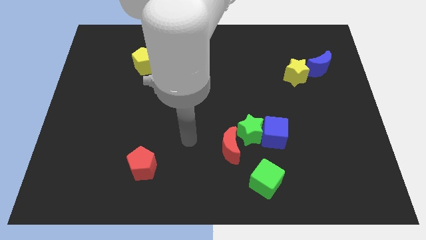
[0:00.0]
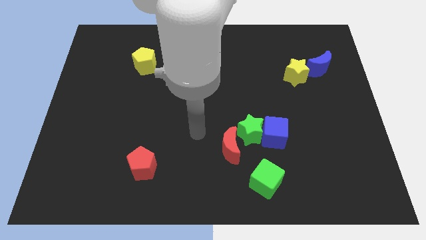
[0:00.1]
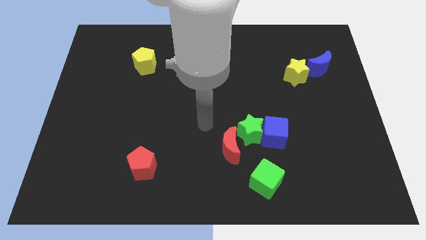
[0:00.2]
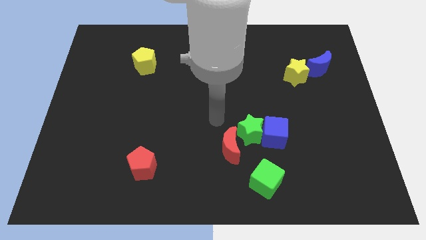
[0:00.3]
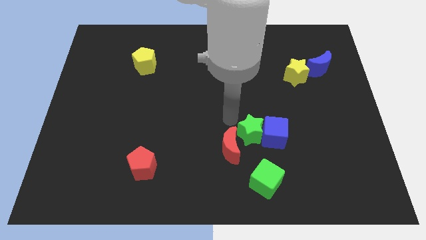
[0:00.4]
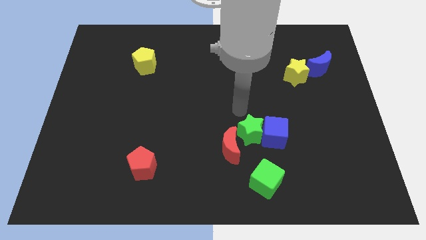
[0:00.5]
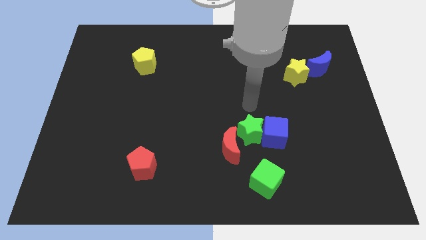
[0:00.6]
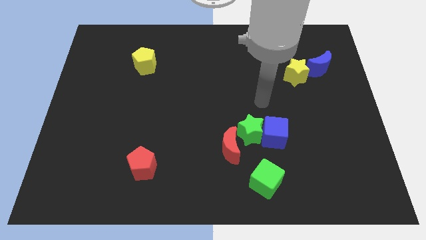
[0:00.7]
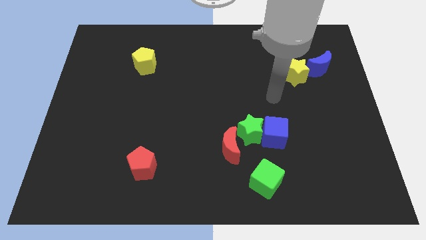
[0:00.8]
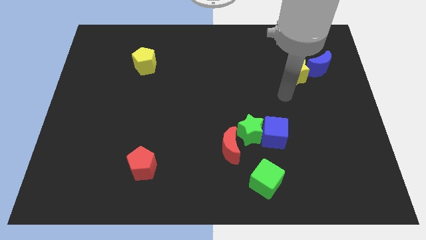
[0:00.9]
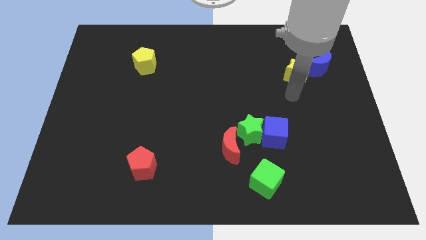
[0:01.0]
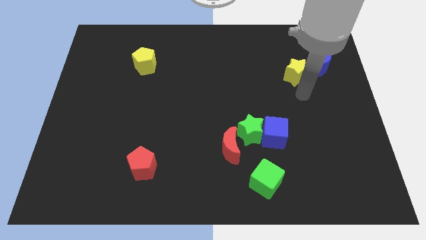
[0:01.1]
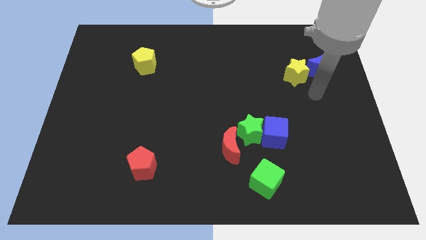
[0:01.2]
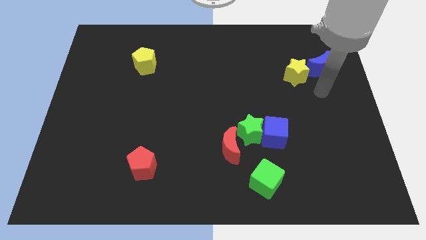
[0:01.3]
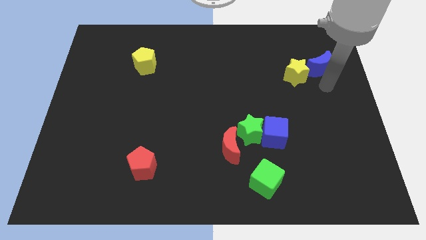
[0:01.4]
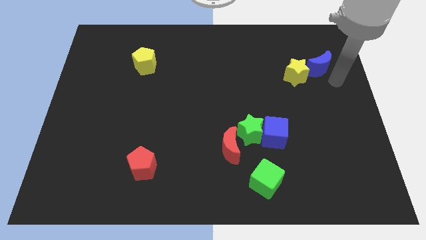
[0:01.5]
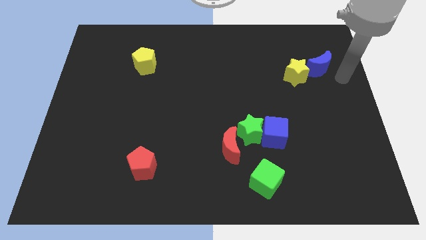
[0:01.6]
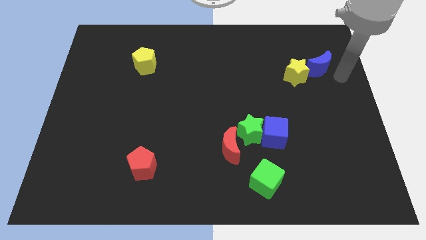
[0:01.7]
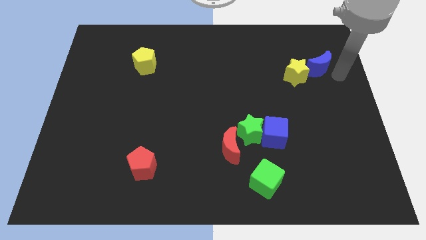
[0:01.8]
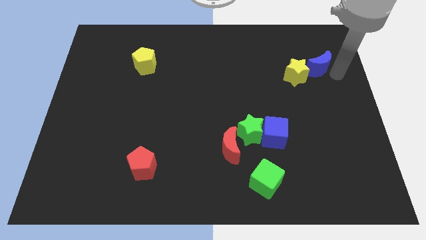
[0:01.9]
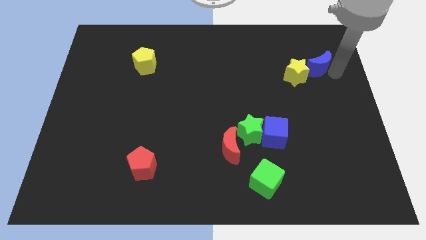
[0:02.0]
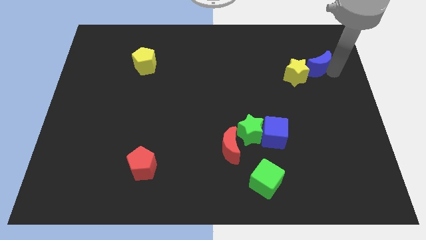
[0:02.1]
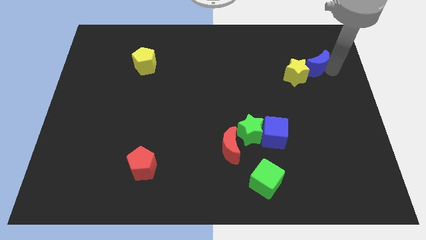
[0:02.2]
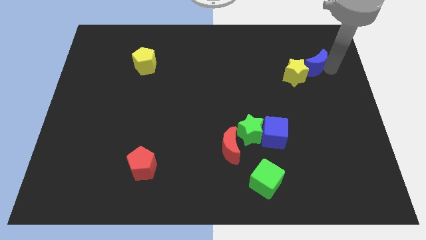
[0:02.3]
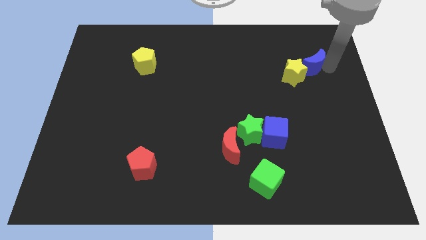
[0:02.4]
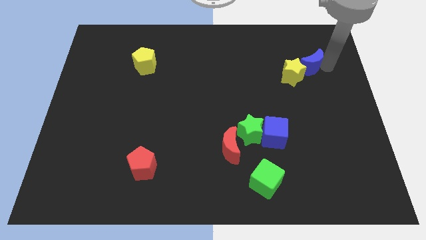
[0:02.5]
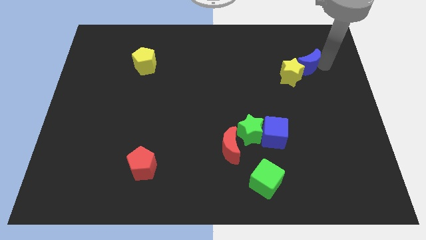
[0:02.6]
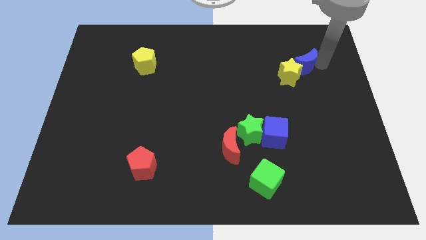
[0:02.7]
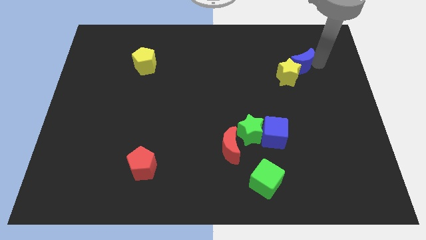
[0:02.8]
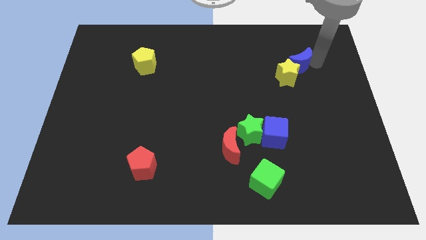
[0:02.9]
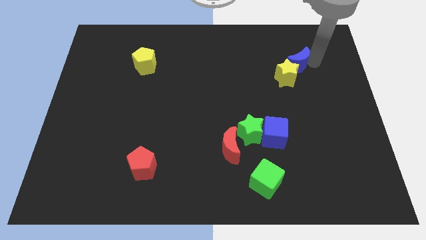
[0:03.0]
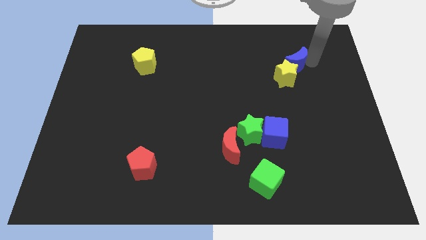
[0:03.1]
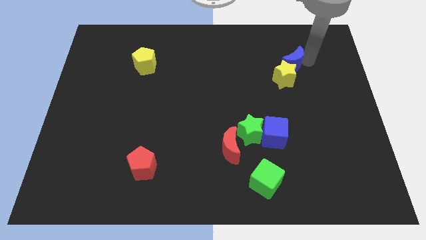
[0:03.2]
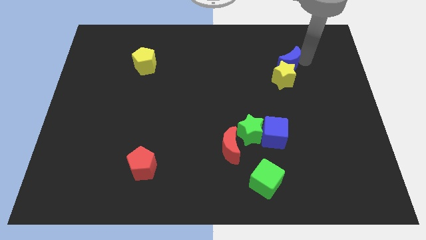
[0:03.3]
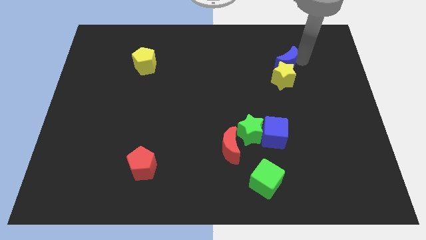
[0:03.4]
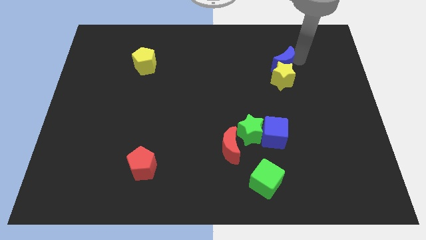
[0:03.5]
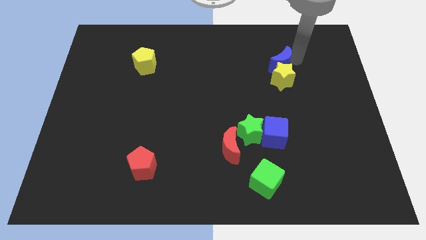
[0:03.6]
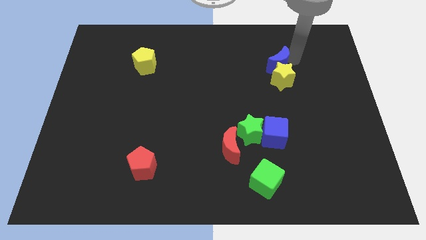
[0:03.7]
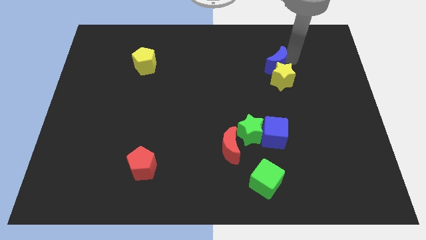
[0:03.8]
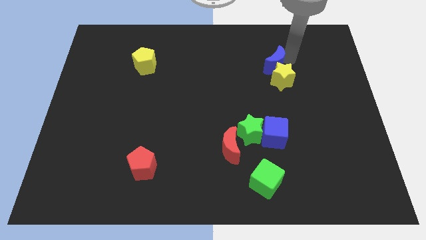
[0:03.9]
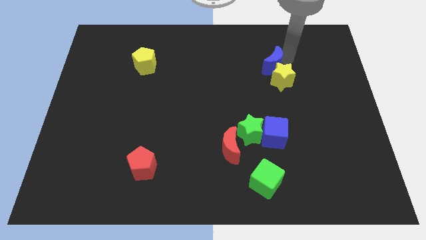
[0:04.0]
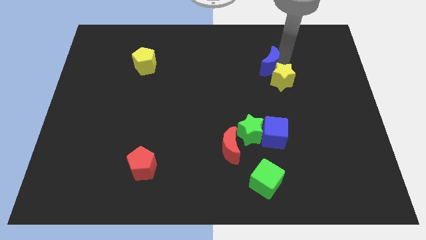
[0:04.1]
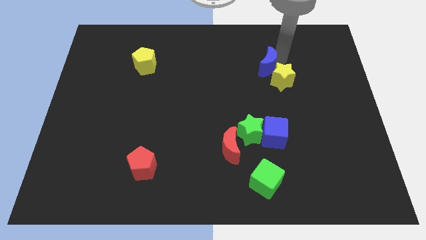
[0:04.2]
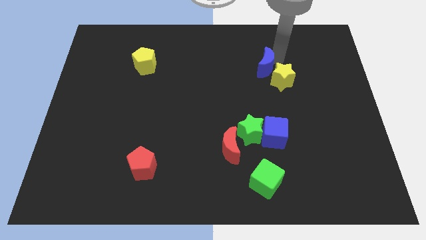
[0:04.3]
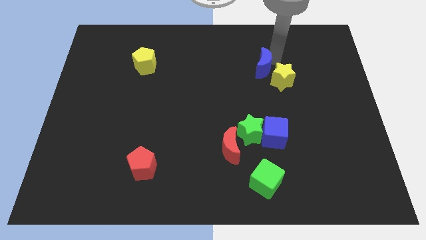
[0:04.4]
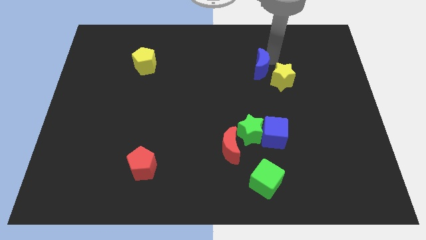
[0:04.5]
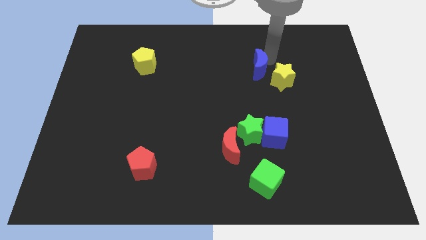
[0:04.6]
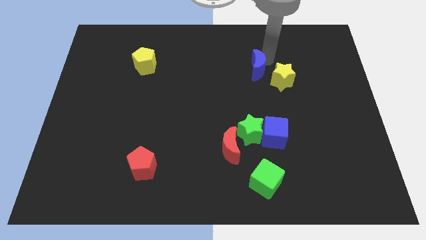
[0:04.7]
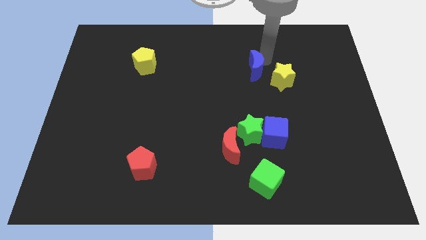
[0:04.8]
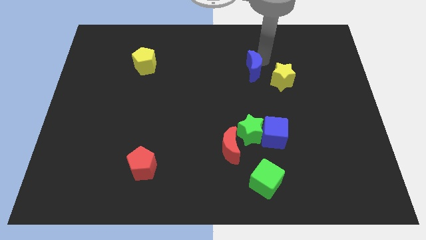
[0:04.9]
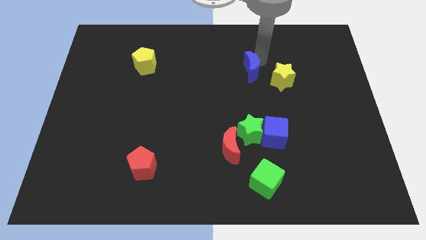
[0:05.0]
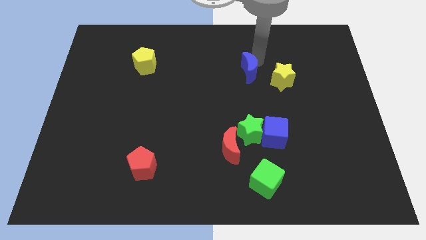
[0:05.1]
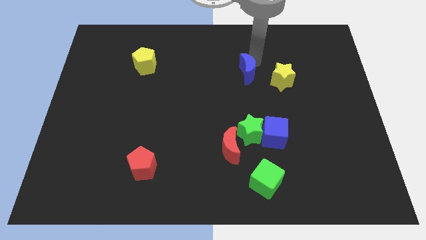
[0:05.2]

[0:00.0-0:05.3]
move the blue moon to the middle

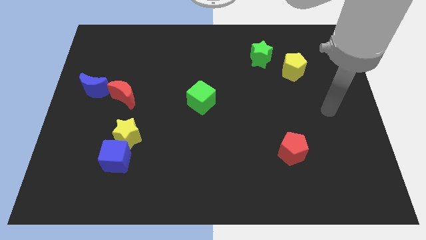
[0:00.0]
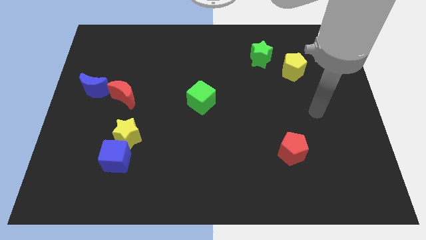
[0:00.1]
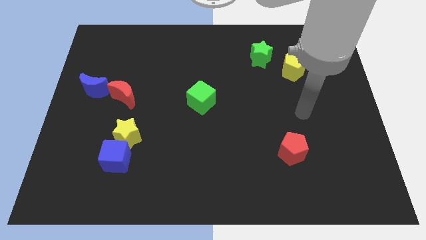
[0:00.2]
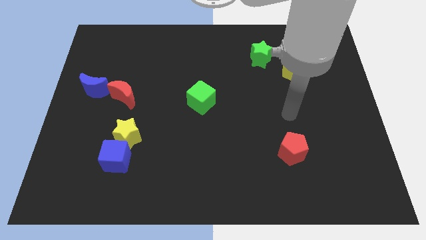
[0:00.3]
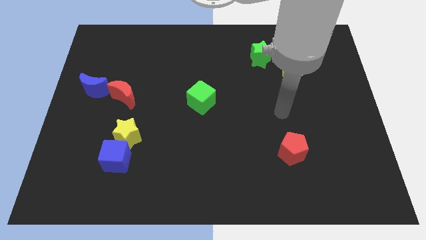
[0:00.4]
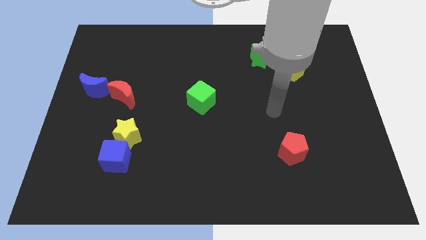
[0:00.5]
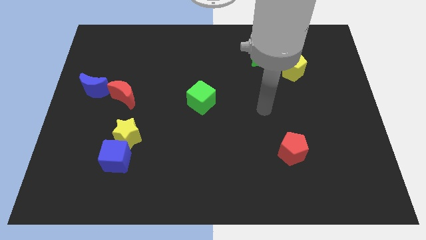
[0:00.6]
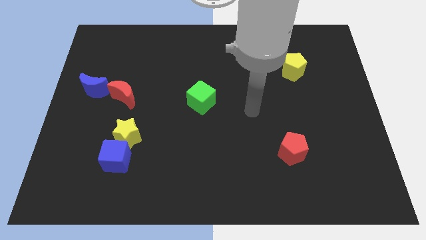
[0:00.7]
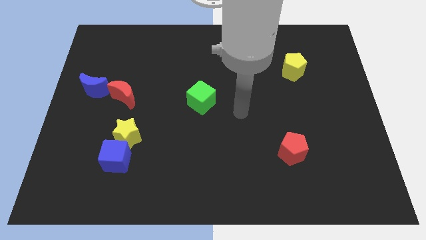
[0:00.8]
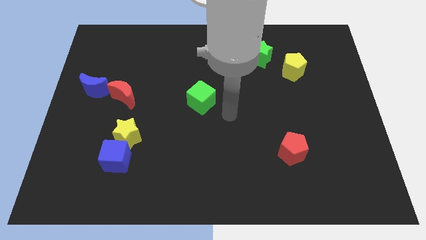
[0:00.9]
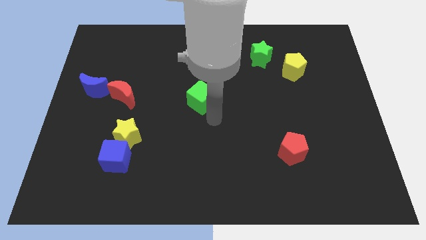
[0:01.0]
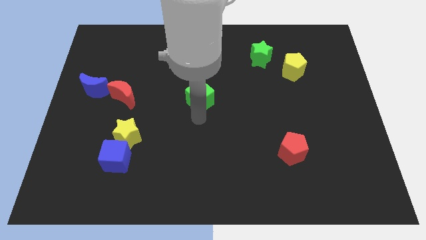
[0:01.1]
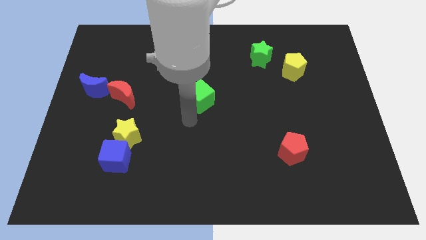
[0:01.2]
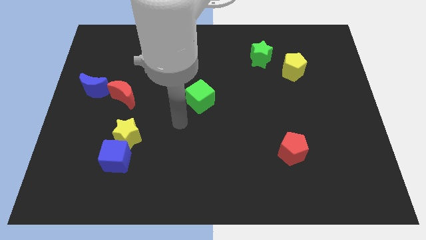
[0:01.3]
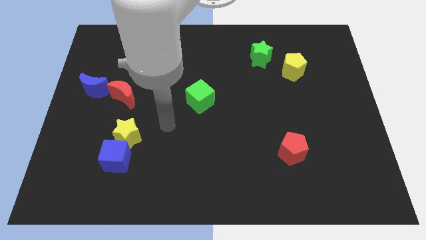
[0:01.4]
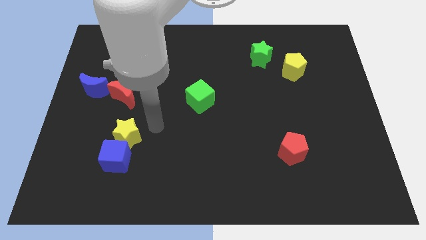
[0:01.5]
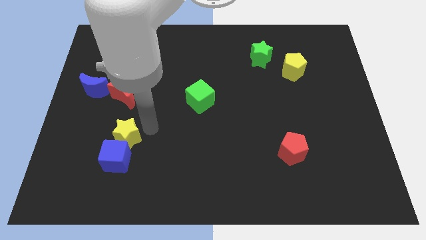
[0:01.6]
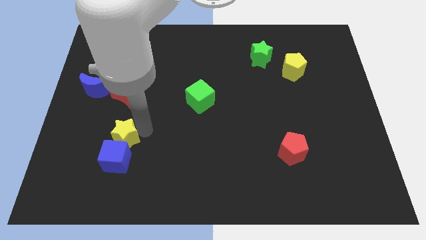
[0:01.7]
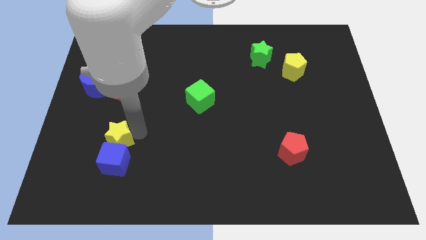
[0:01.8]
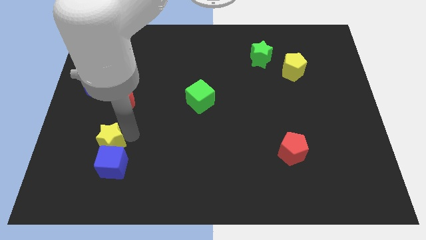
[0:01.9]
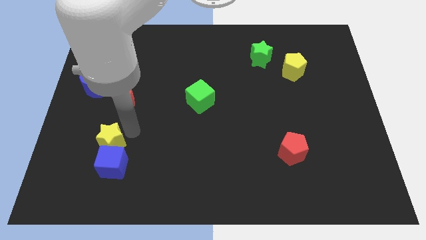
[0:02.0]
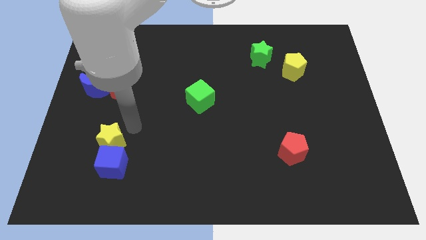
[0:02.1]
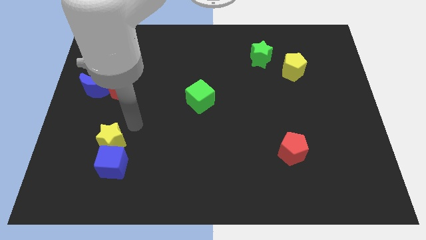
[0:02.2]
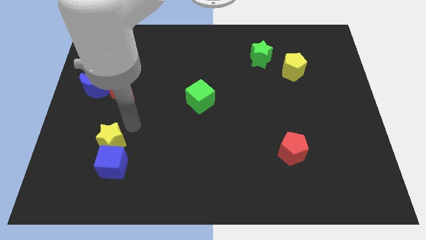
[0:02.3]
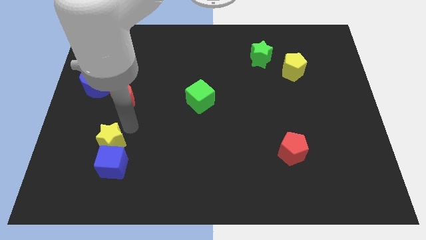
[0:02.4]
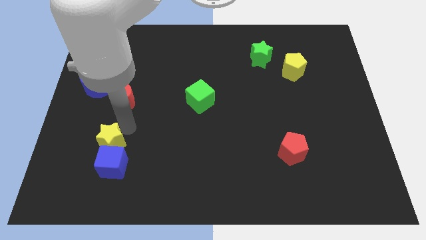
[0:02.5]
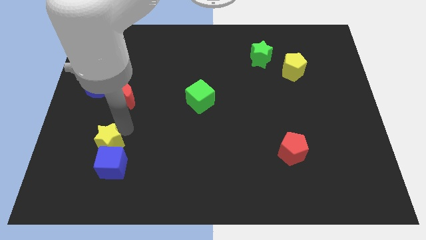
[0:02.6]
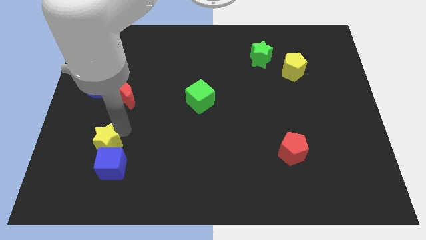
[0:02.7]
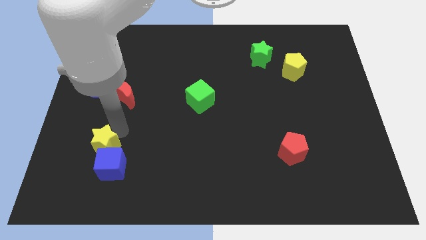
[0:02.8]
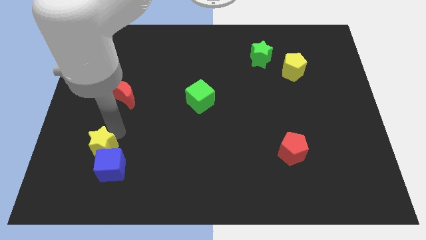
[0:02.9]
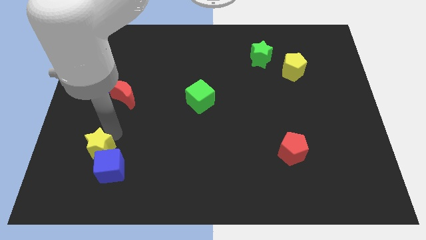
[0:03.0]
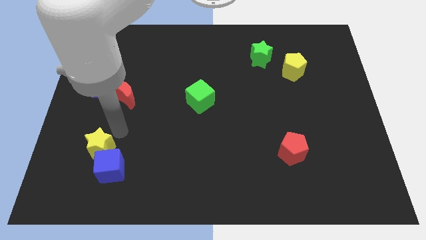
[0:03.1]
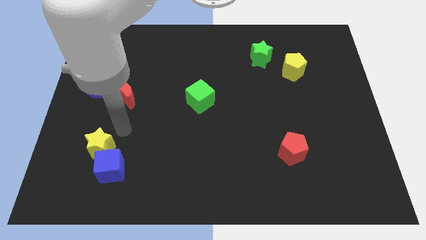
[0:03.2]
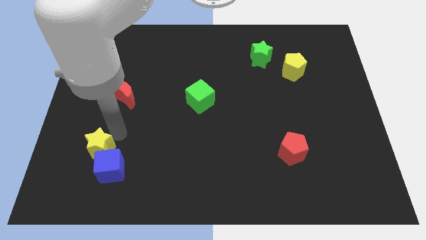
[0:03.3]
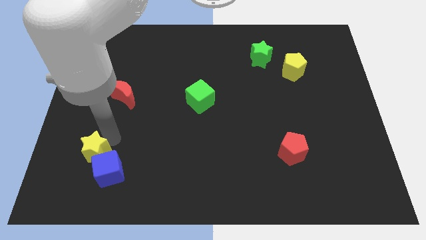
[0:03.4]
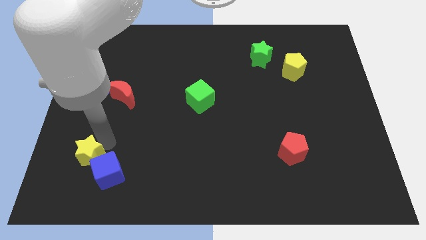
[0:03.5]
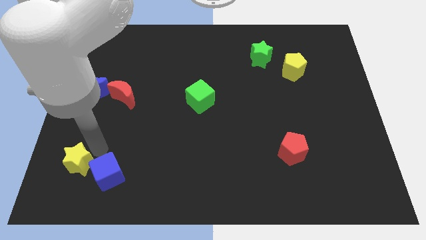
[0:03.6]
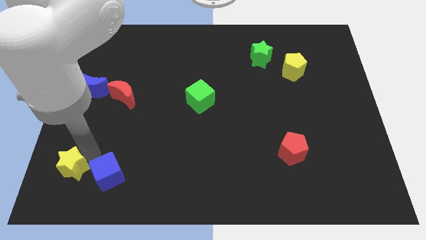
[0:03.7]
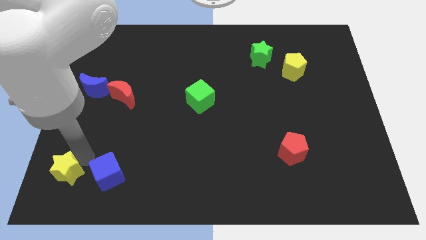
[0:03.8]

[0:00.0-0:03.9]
slide the yellow star to the bottom left
